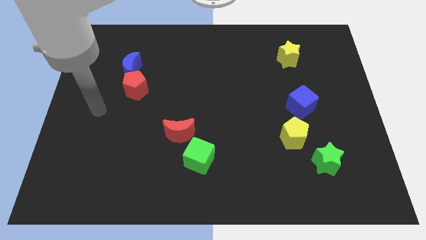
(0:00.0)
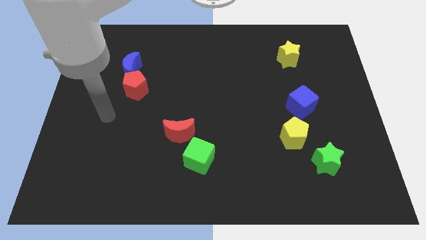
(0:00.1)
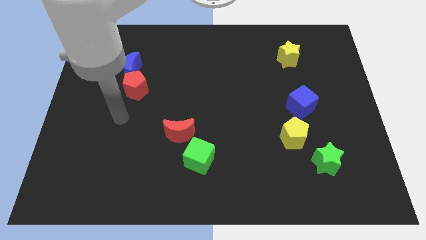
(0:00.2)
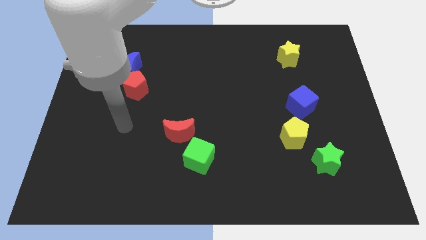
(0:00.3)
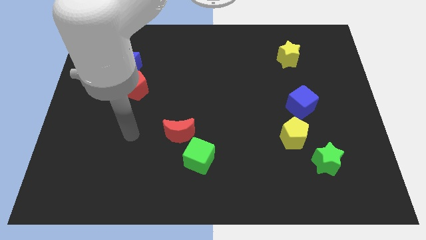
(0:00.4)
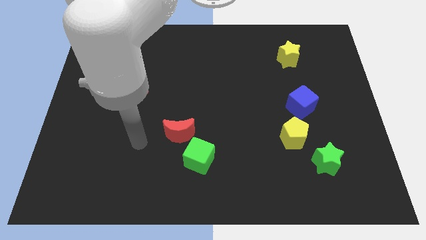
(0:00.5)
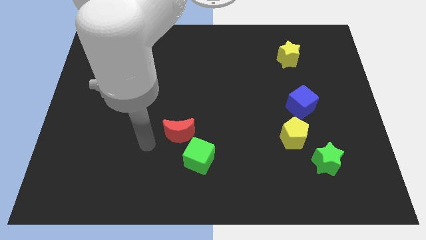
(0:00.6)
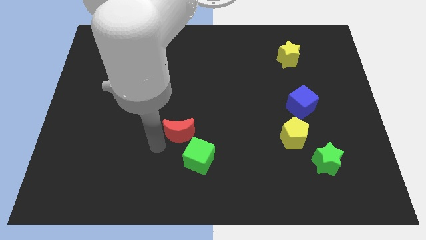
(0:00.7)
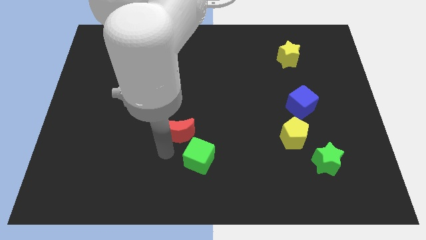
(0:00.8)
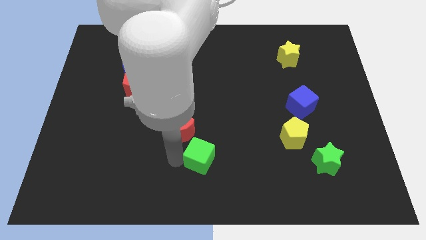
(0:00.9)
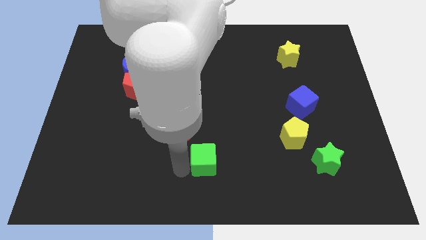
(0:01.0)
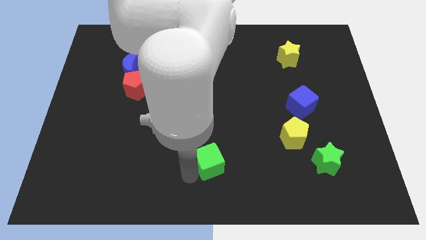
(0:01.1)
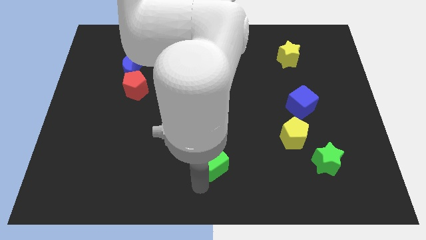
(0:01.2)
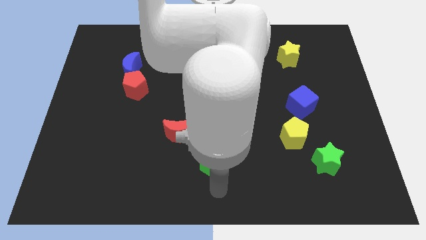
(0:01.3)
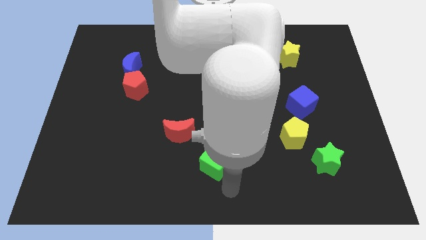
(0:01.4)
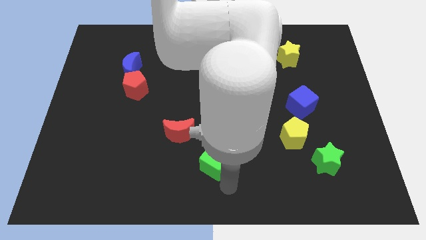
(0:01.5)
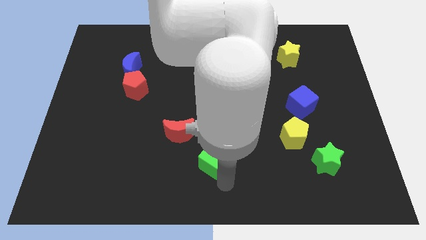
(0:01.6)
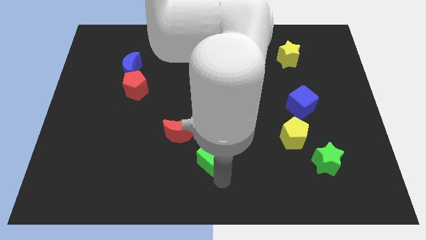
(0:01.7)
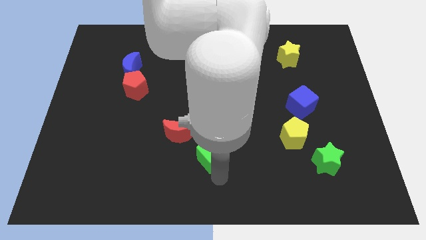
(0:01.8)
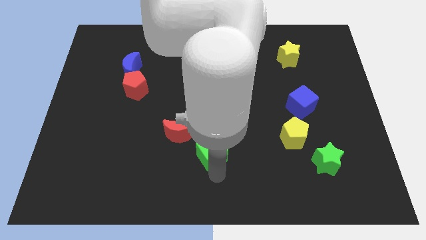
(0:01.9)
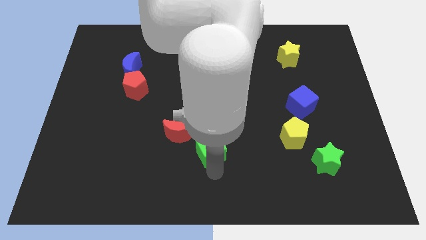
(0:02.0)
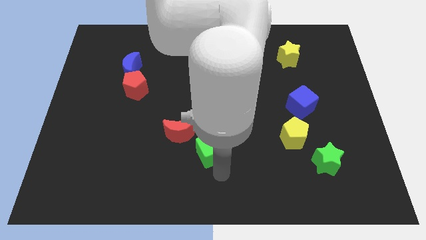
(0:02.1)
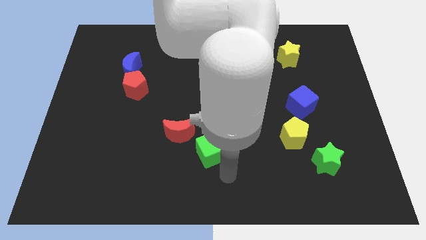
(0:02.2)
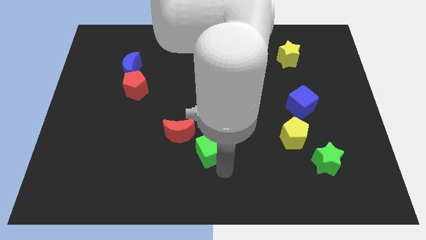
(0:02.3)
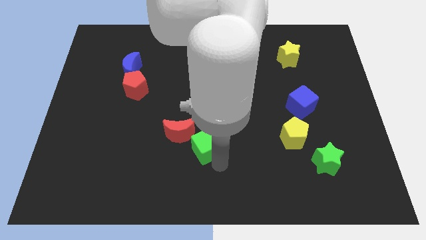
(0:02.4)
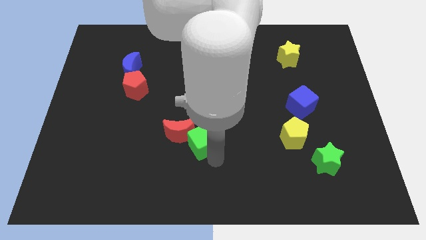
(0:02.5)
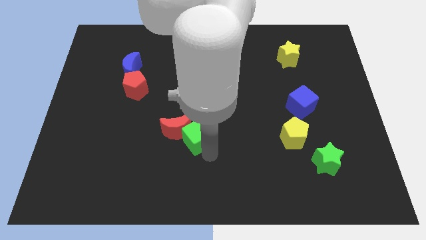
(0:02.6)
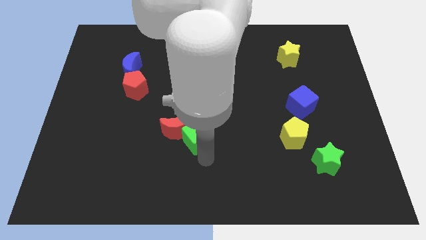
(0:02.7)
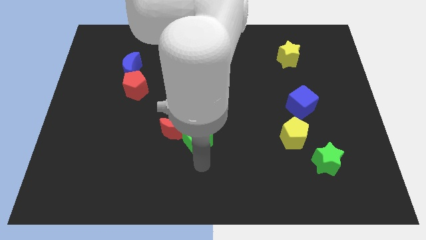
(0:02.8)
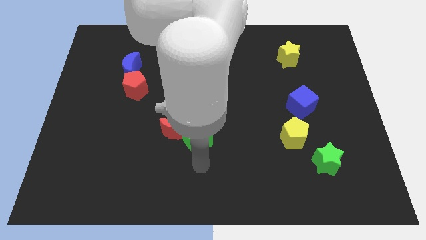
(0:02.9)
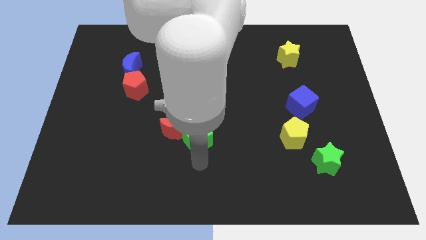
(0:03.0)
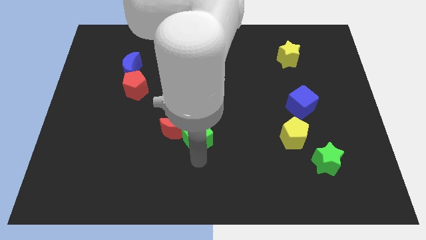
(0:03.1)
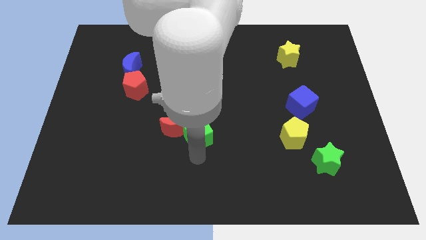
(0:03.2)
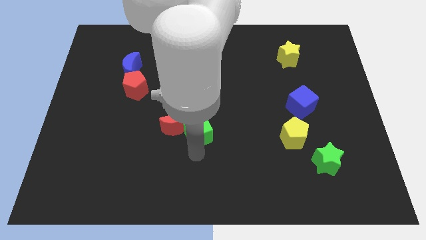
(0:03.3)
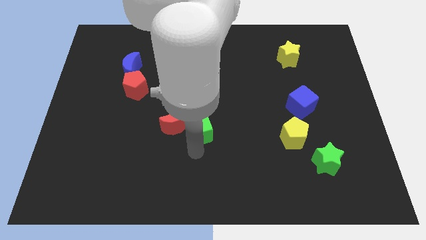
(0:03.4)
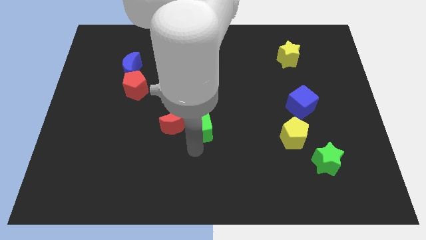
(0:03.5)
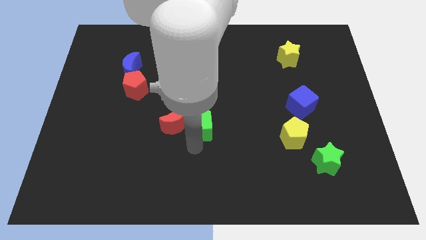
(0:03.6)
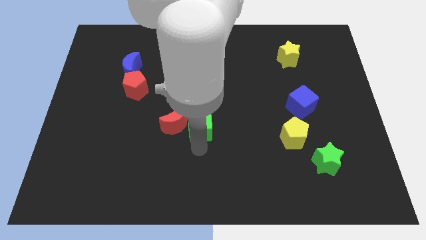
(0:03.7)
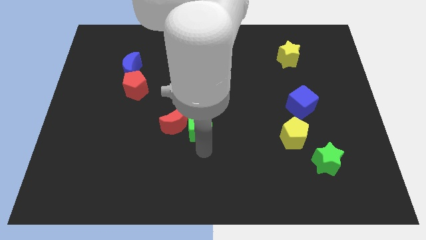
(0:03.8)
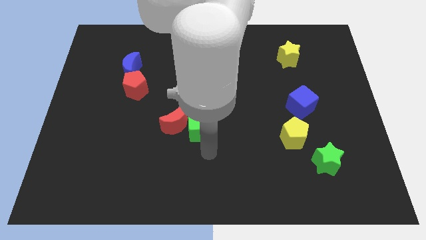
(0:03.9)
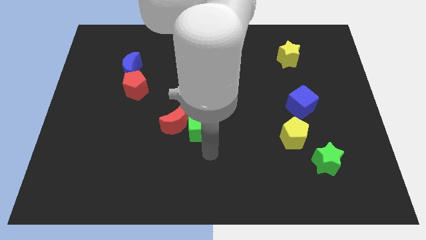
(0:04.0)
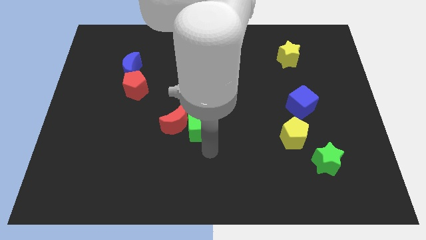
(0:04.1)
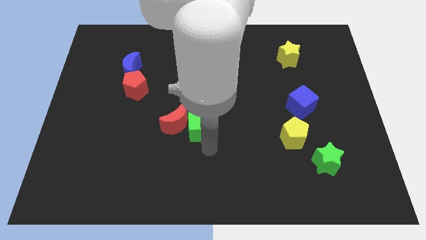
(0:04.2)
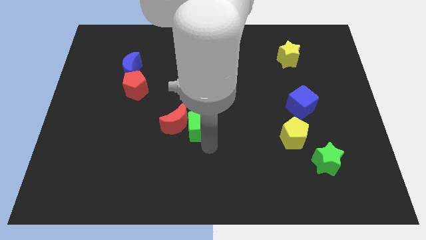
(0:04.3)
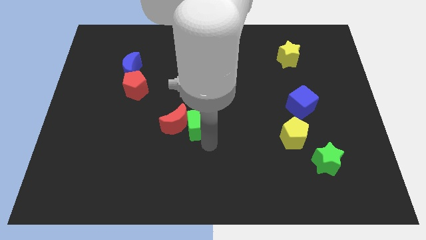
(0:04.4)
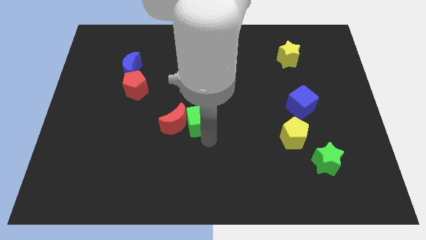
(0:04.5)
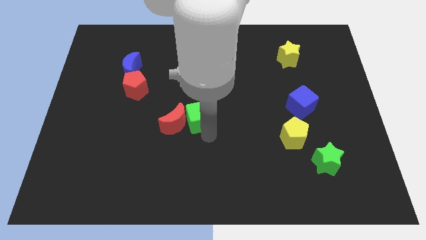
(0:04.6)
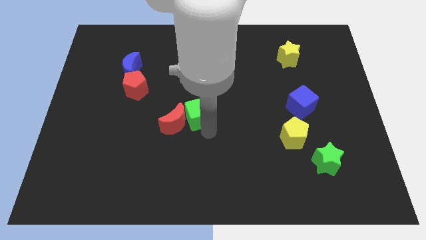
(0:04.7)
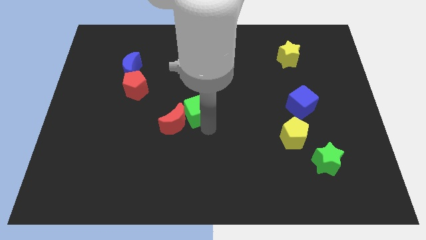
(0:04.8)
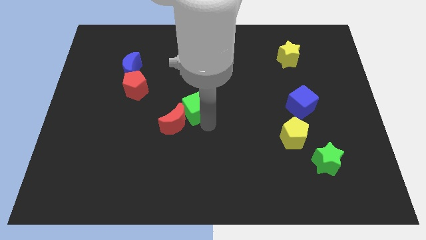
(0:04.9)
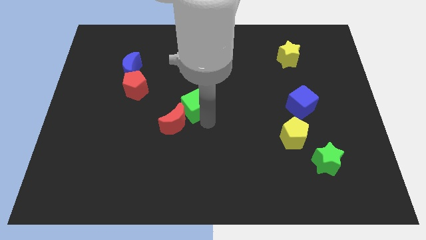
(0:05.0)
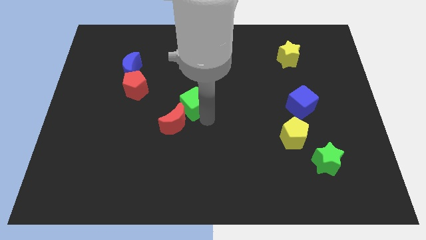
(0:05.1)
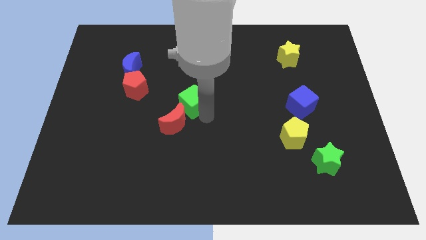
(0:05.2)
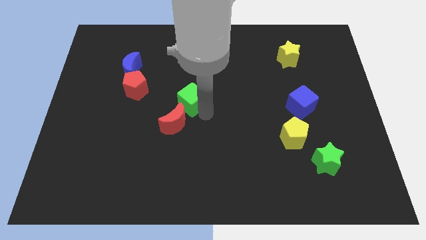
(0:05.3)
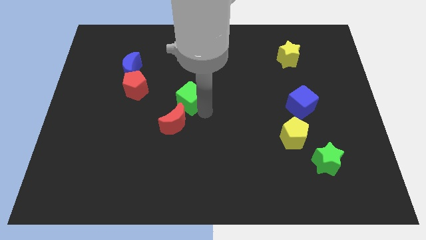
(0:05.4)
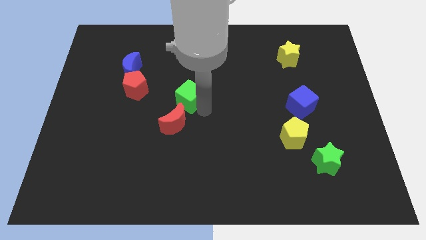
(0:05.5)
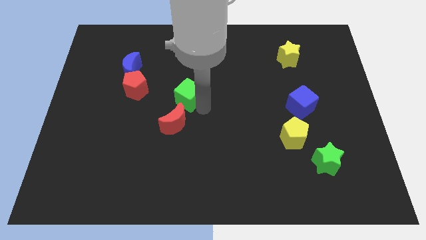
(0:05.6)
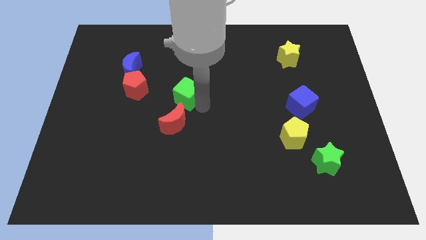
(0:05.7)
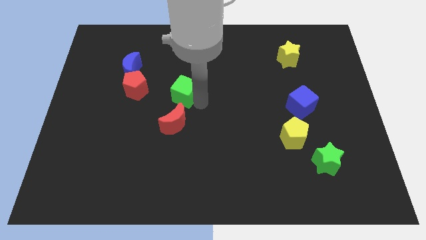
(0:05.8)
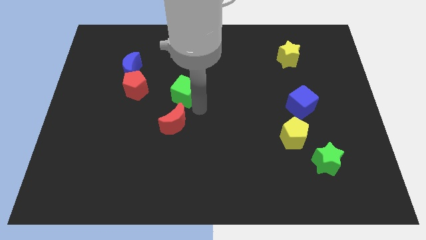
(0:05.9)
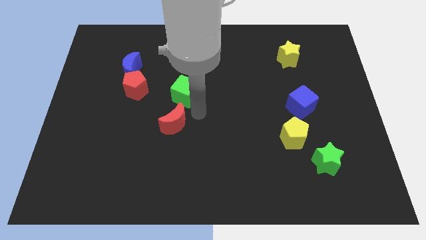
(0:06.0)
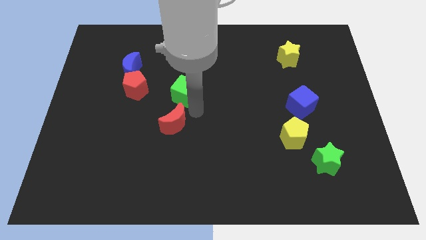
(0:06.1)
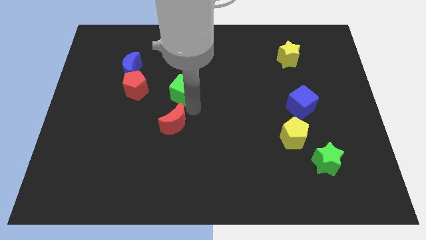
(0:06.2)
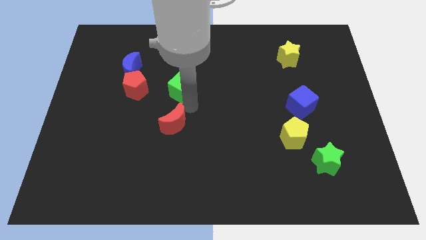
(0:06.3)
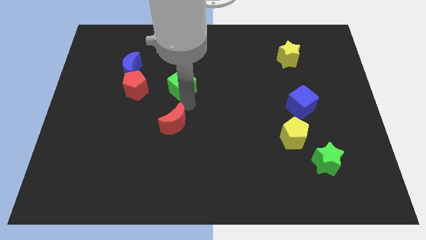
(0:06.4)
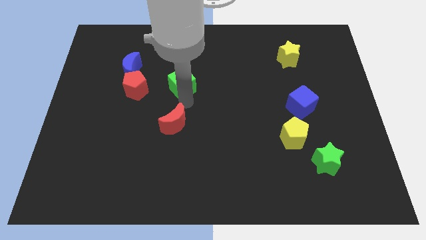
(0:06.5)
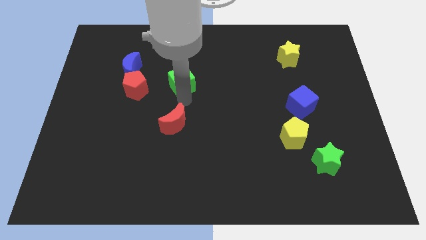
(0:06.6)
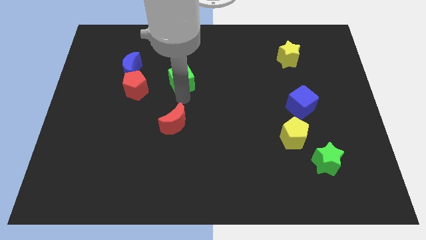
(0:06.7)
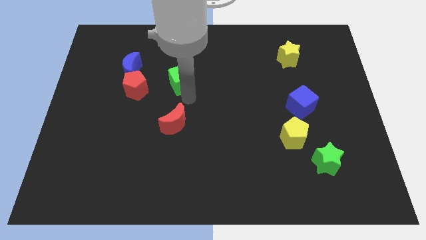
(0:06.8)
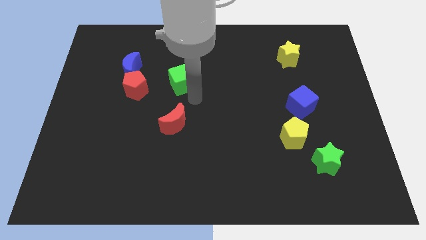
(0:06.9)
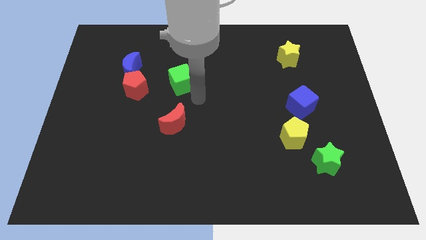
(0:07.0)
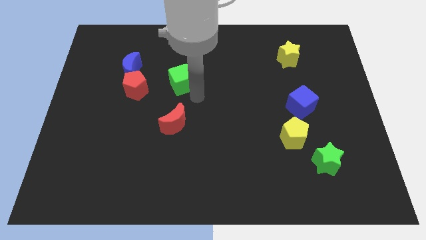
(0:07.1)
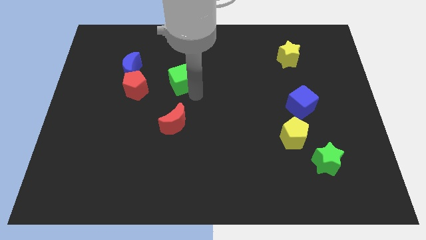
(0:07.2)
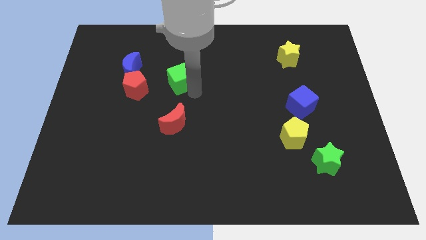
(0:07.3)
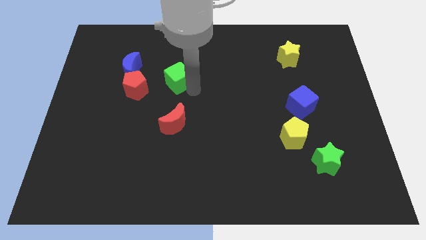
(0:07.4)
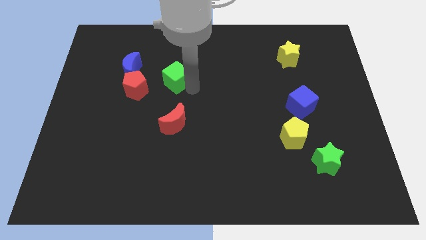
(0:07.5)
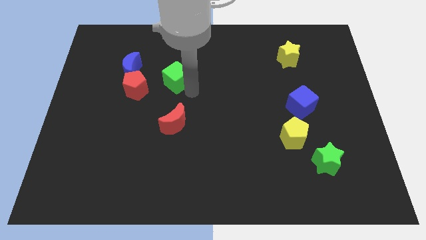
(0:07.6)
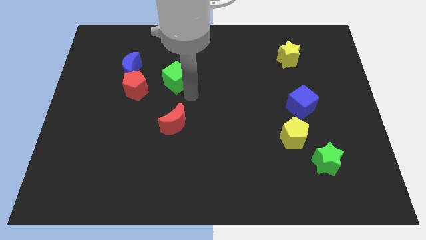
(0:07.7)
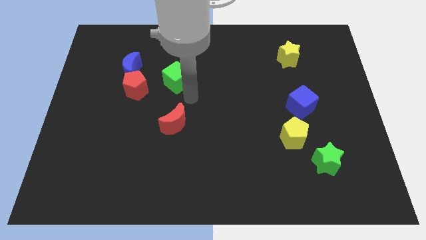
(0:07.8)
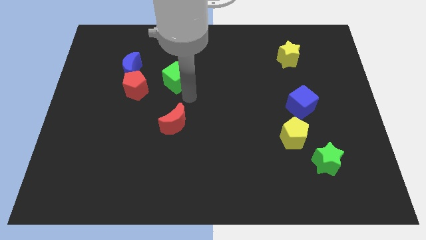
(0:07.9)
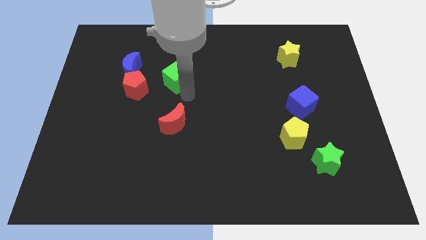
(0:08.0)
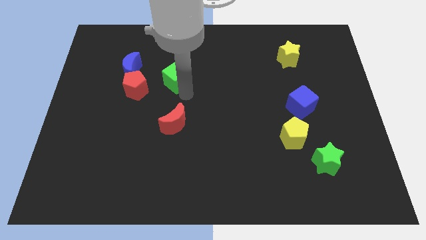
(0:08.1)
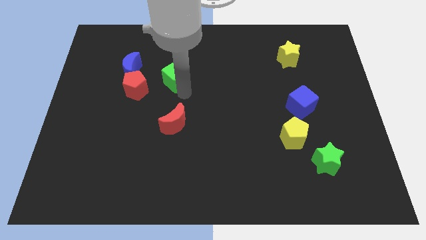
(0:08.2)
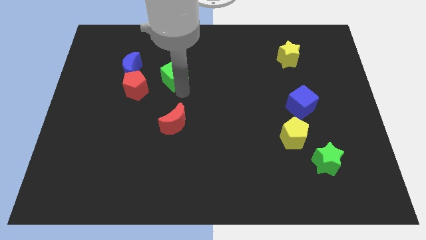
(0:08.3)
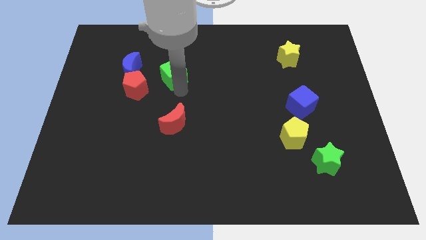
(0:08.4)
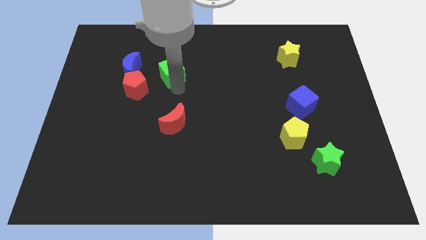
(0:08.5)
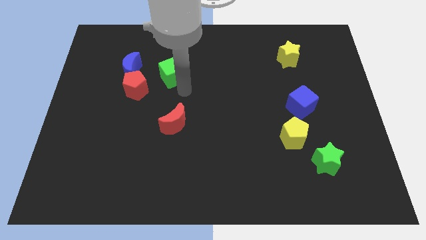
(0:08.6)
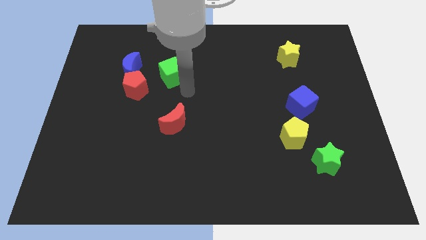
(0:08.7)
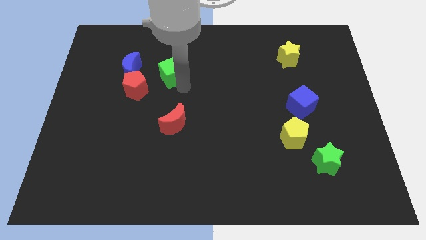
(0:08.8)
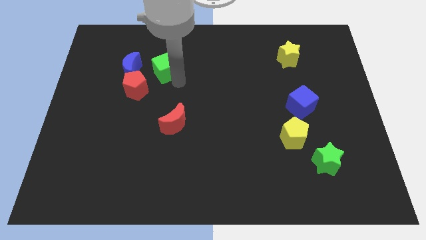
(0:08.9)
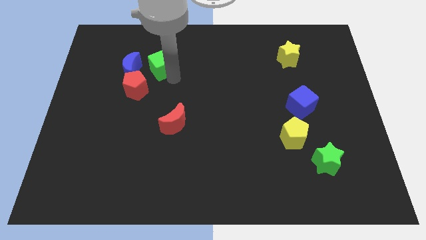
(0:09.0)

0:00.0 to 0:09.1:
slide the green cube to the top right side of the blue moon
